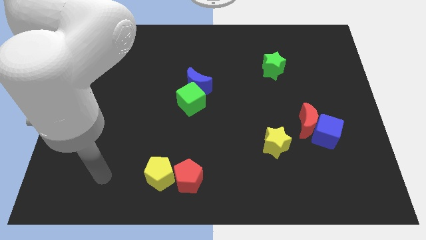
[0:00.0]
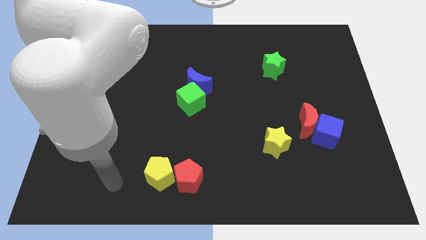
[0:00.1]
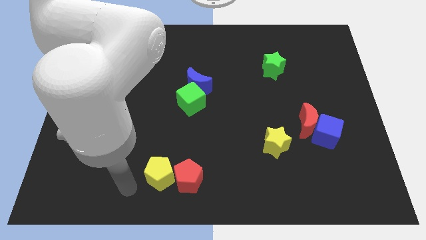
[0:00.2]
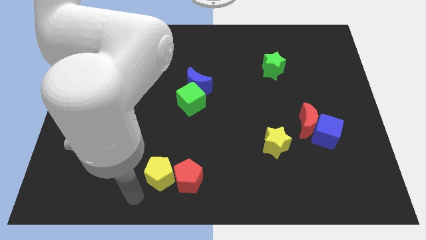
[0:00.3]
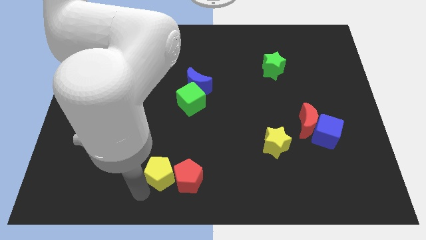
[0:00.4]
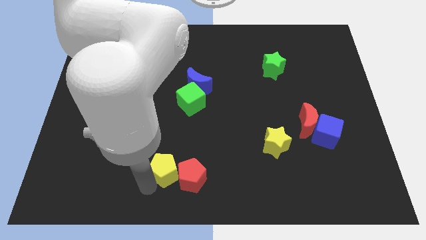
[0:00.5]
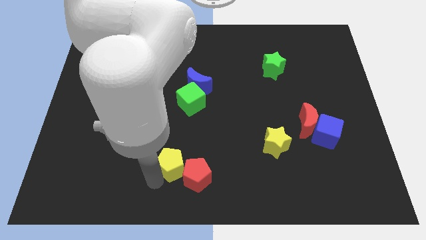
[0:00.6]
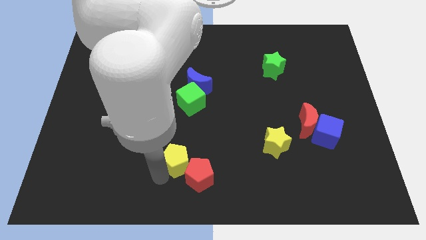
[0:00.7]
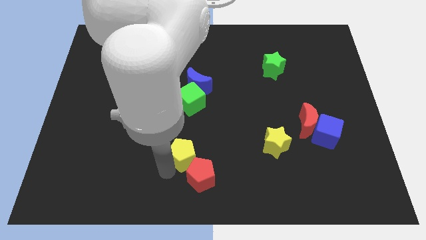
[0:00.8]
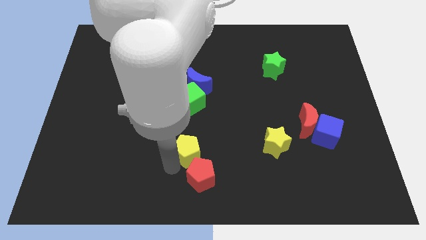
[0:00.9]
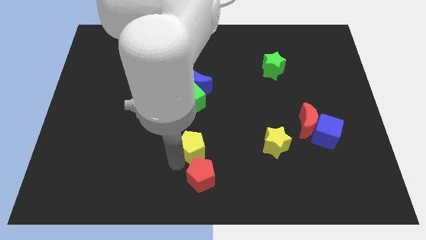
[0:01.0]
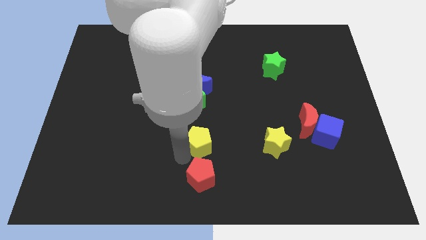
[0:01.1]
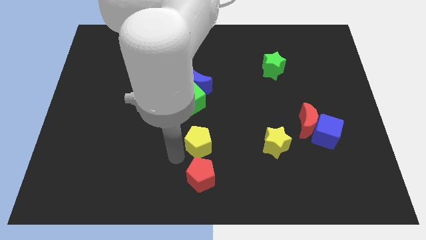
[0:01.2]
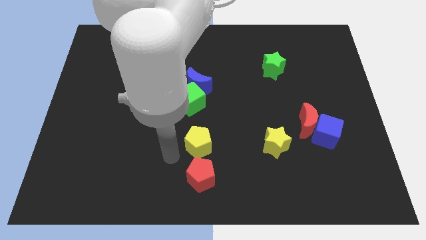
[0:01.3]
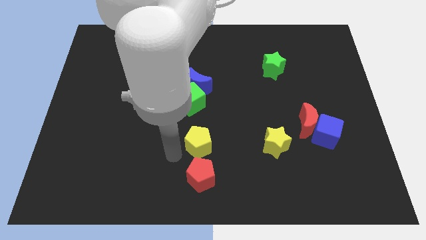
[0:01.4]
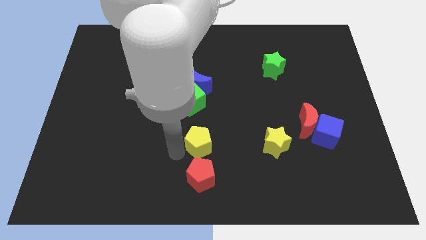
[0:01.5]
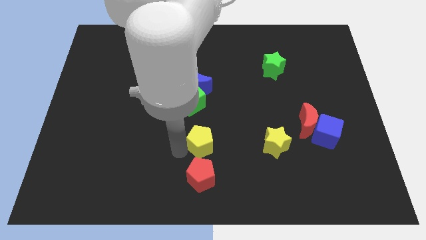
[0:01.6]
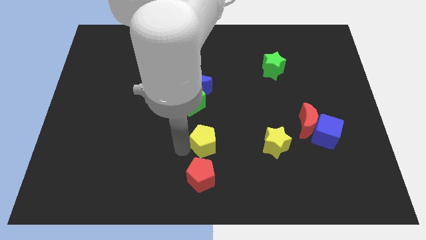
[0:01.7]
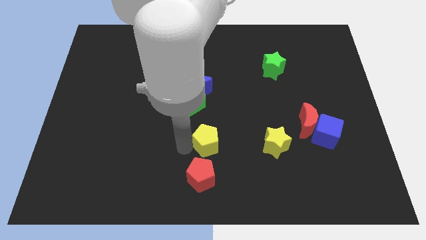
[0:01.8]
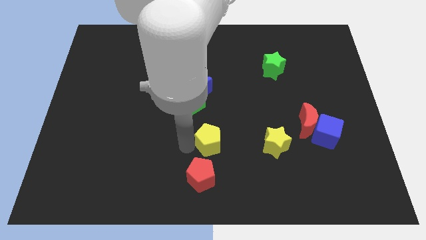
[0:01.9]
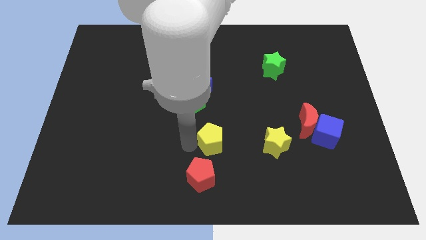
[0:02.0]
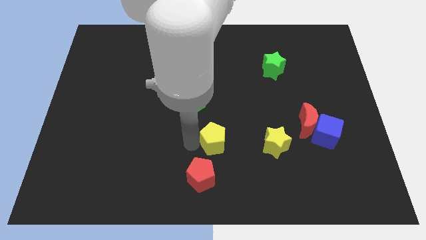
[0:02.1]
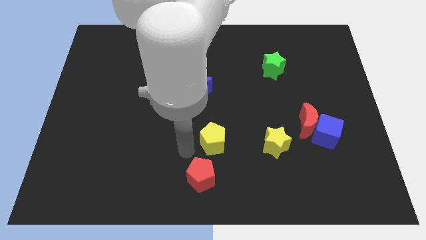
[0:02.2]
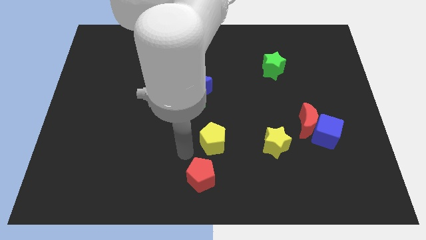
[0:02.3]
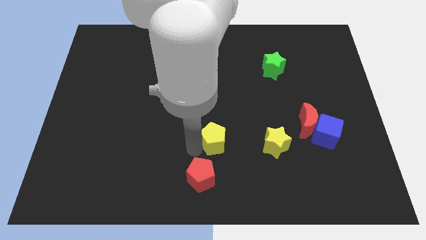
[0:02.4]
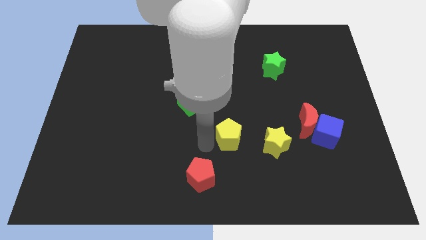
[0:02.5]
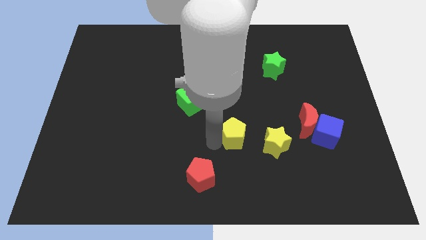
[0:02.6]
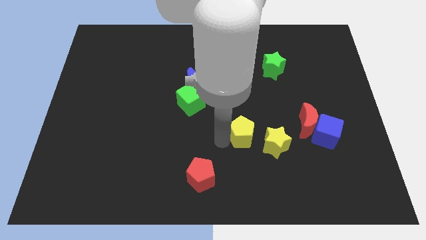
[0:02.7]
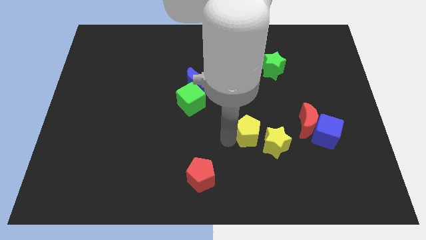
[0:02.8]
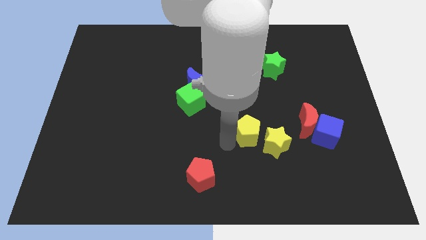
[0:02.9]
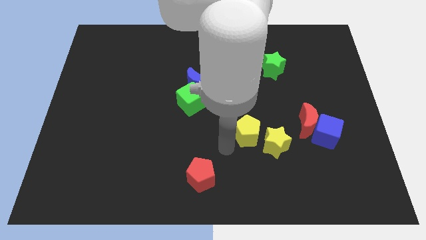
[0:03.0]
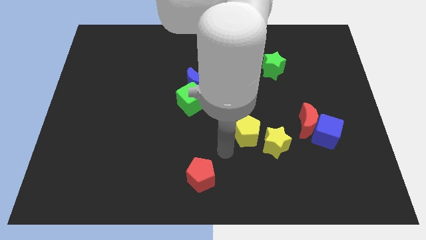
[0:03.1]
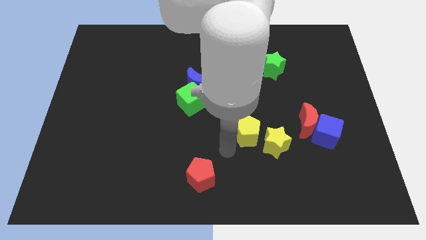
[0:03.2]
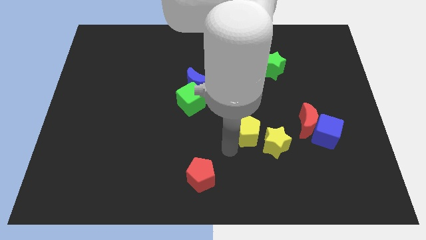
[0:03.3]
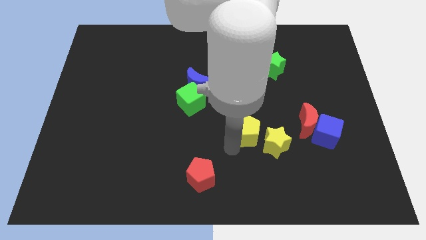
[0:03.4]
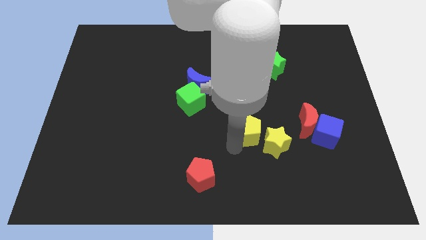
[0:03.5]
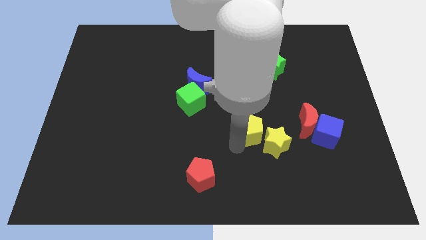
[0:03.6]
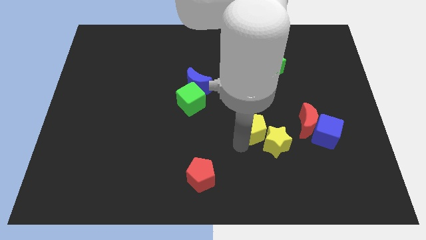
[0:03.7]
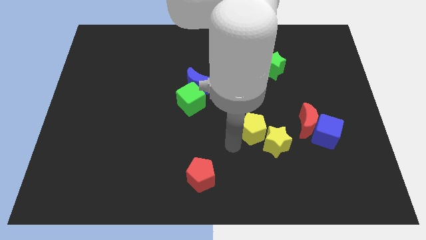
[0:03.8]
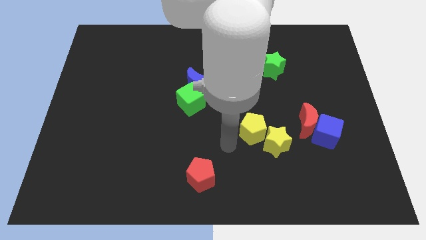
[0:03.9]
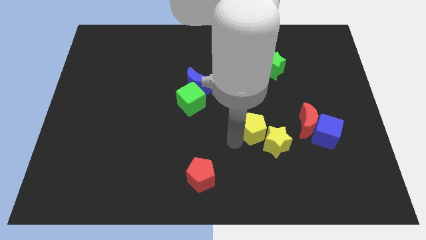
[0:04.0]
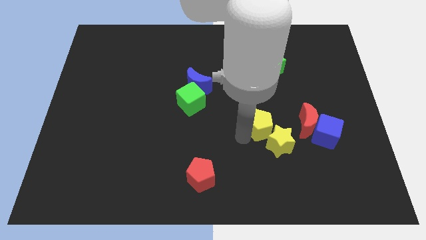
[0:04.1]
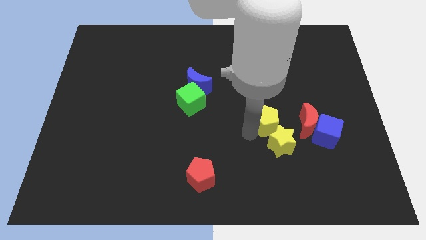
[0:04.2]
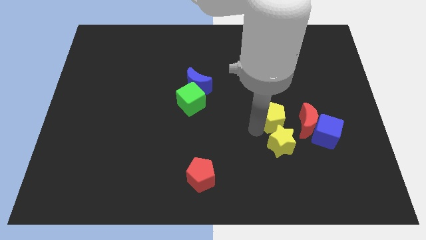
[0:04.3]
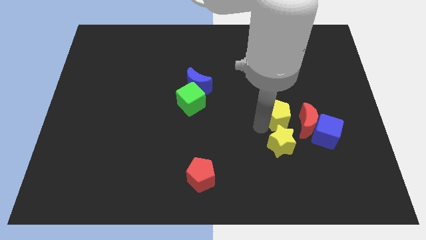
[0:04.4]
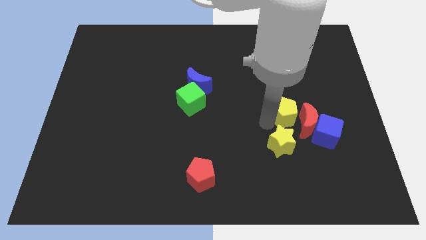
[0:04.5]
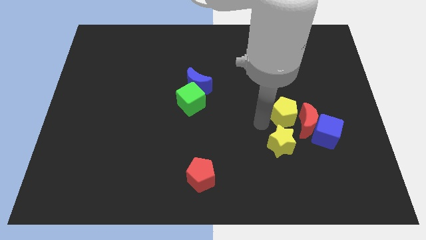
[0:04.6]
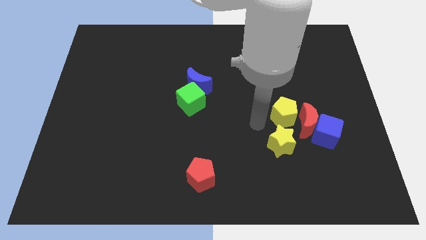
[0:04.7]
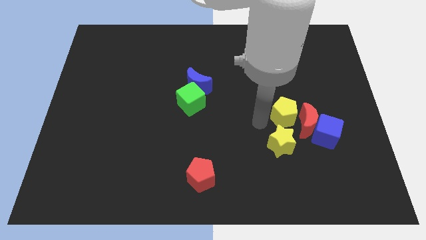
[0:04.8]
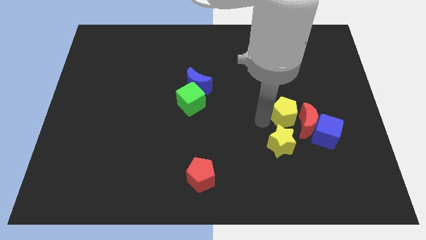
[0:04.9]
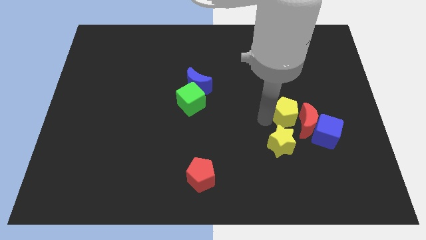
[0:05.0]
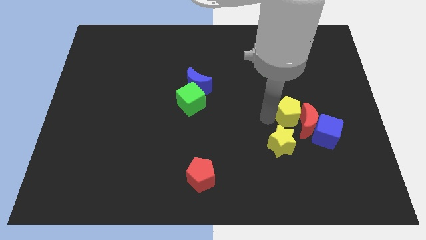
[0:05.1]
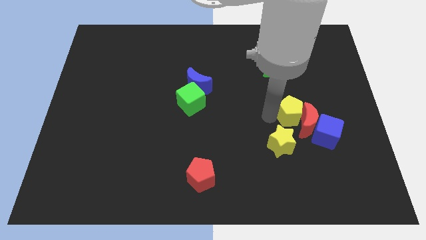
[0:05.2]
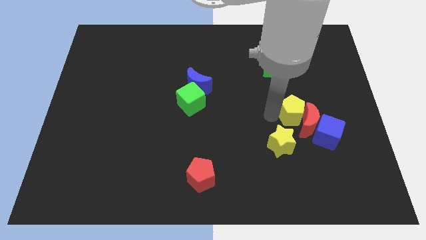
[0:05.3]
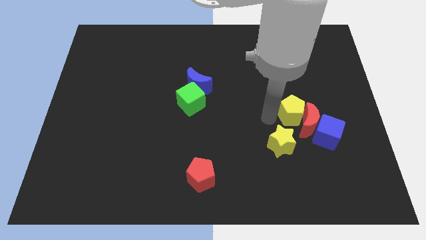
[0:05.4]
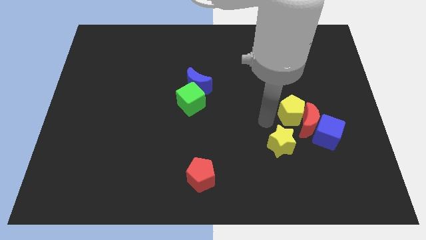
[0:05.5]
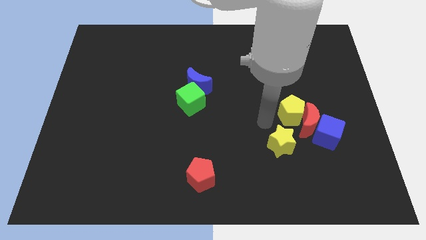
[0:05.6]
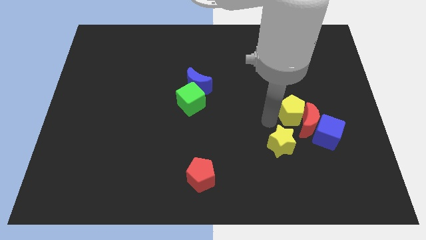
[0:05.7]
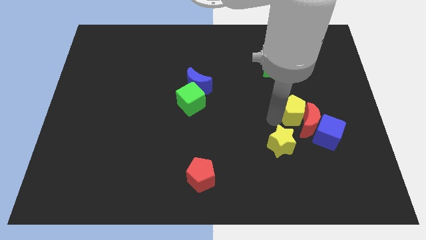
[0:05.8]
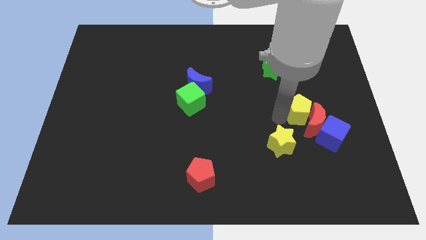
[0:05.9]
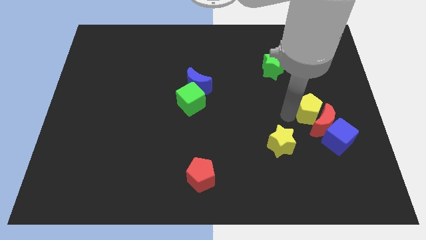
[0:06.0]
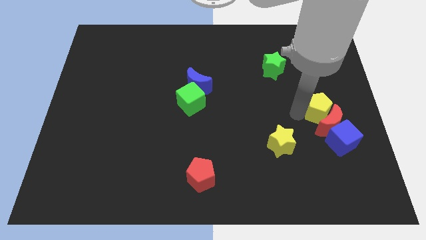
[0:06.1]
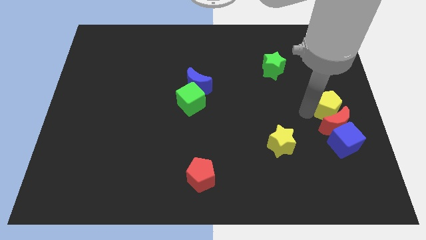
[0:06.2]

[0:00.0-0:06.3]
put the yellow pentagon diagonally up and to the right of the red moon

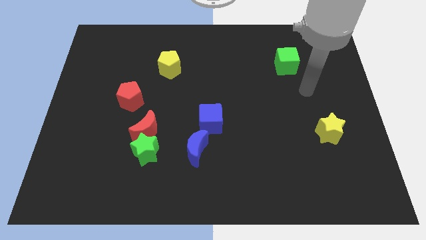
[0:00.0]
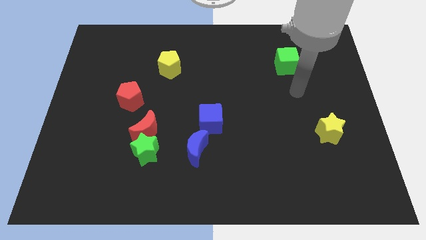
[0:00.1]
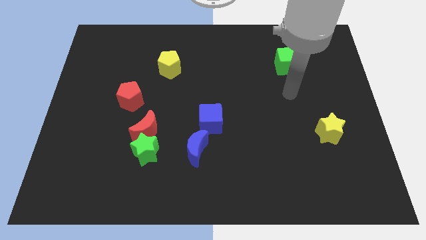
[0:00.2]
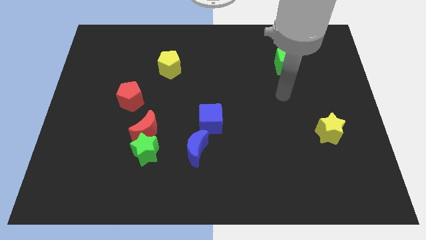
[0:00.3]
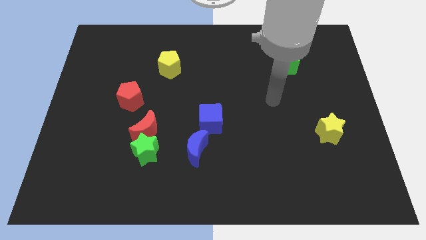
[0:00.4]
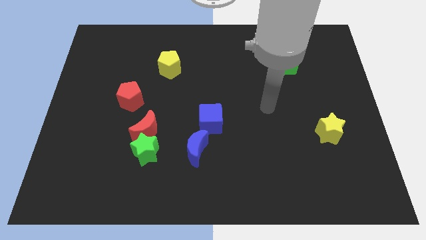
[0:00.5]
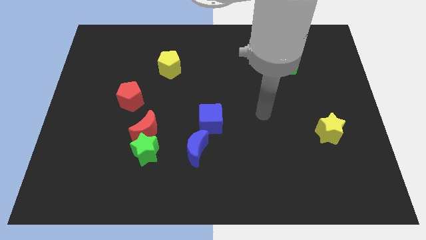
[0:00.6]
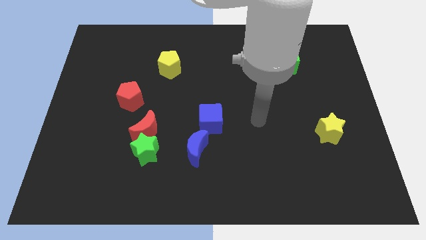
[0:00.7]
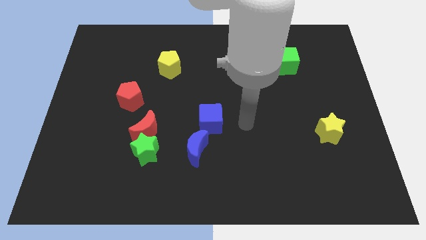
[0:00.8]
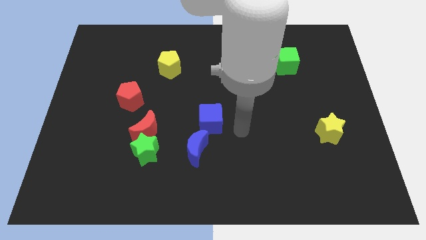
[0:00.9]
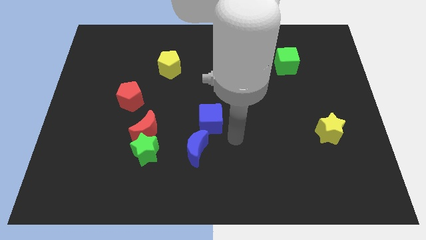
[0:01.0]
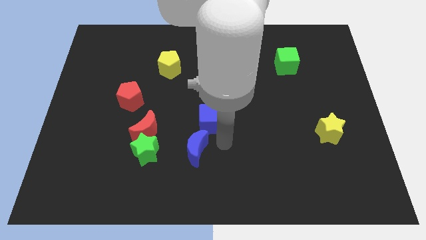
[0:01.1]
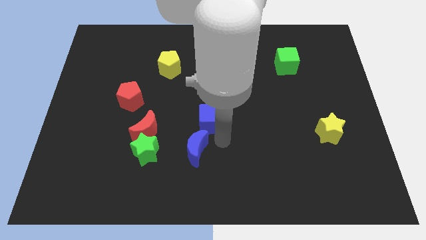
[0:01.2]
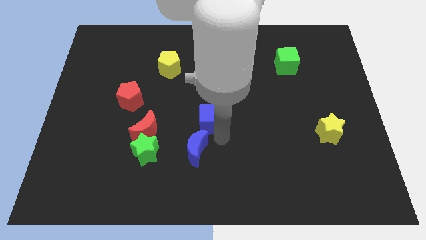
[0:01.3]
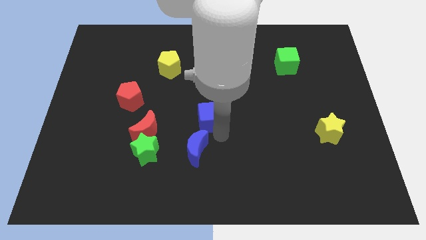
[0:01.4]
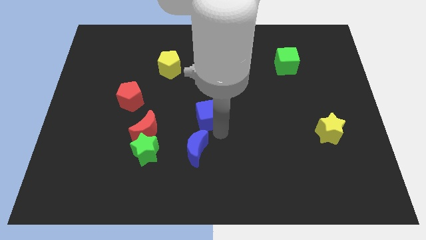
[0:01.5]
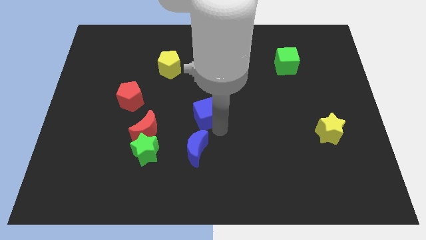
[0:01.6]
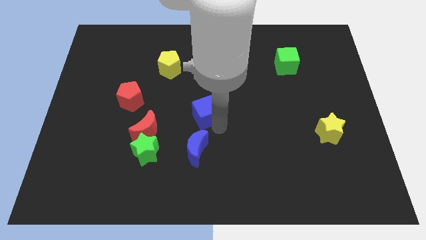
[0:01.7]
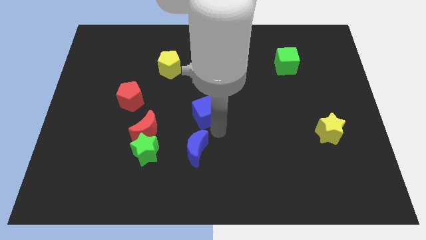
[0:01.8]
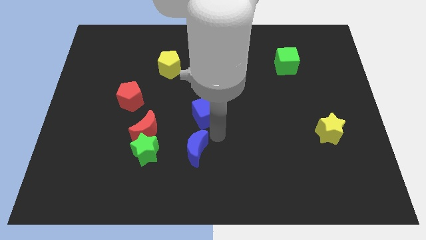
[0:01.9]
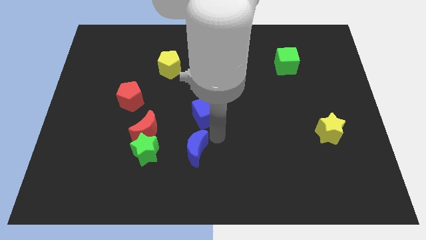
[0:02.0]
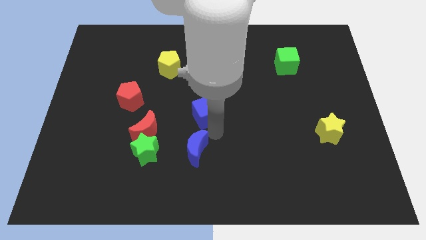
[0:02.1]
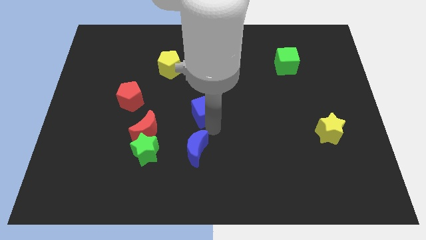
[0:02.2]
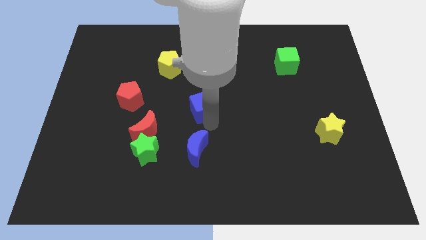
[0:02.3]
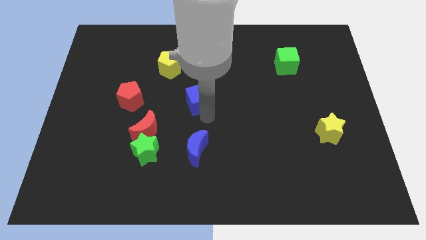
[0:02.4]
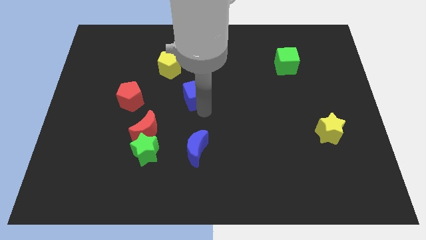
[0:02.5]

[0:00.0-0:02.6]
put the blue cube diagonally down and to the right of the yellow pentagon
